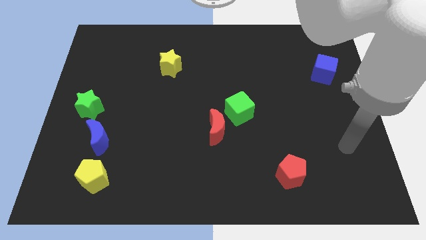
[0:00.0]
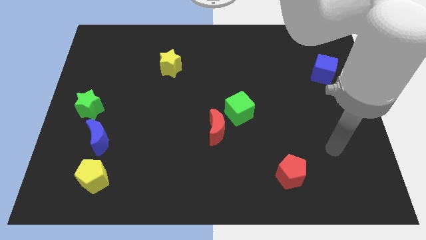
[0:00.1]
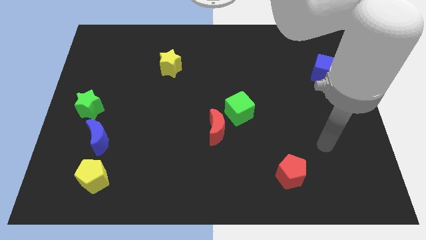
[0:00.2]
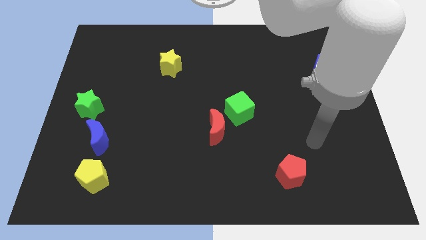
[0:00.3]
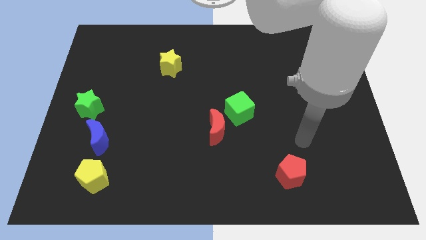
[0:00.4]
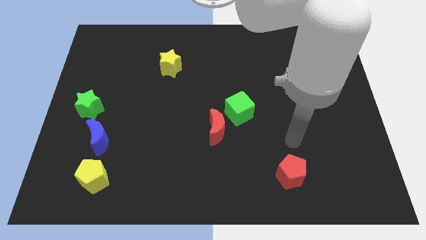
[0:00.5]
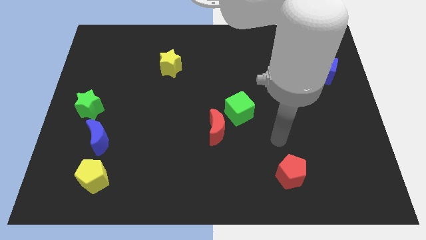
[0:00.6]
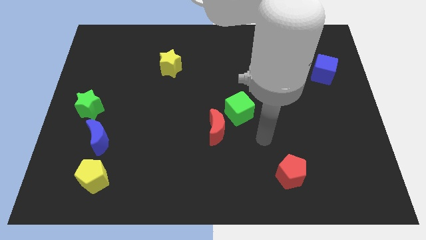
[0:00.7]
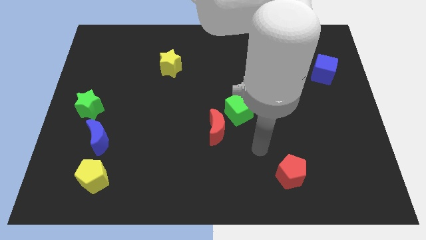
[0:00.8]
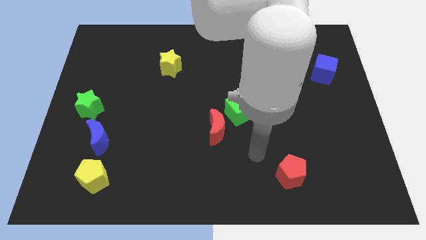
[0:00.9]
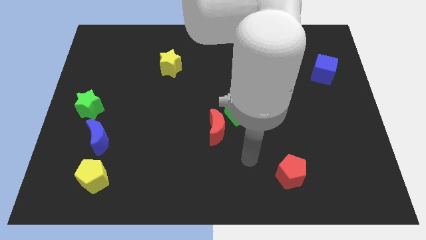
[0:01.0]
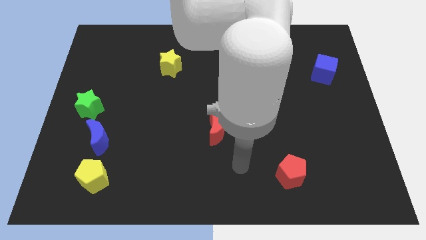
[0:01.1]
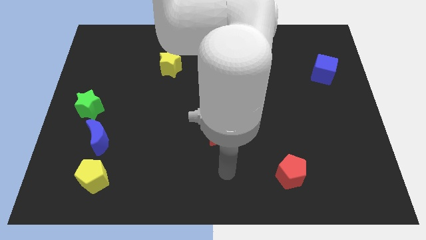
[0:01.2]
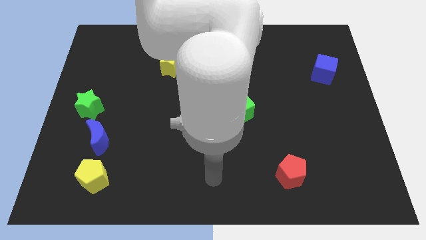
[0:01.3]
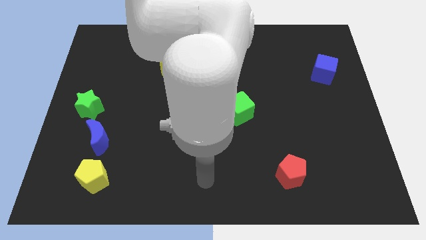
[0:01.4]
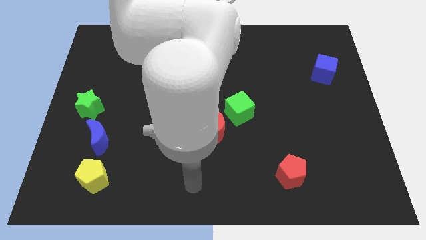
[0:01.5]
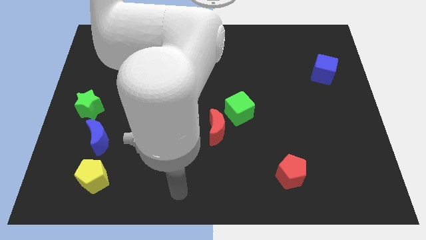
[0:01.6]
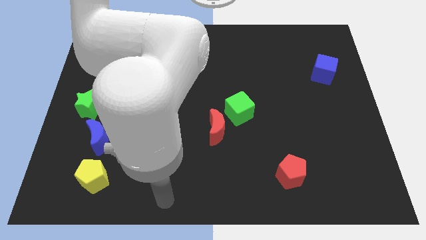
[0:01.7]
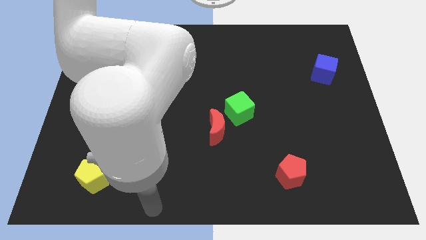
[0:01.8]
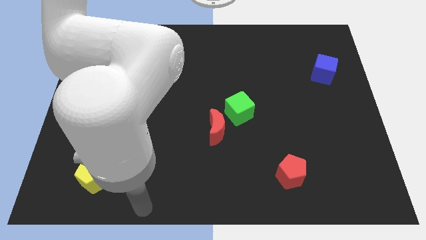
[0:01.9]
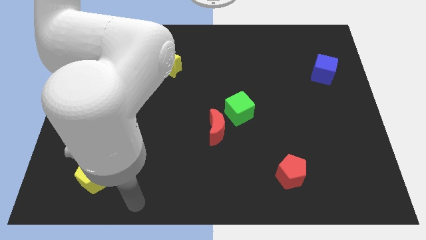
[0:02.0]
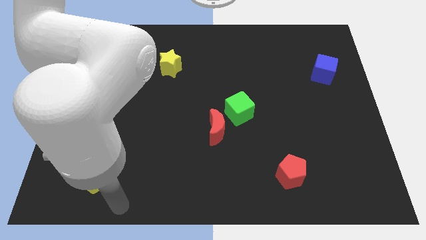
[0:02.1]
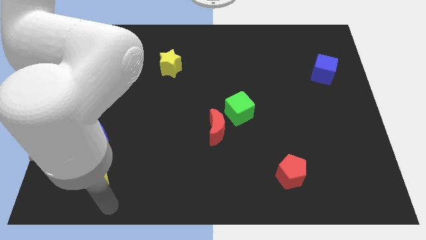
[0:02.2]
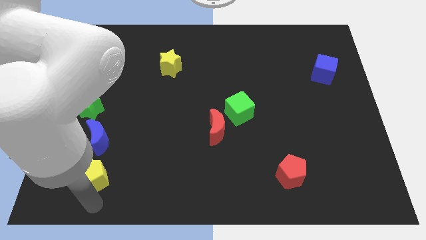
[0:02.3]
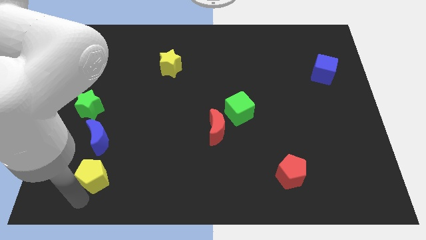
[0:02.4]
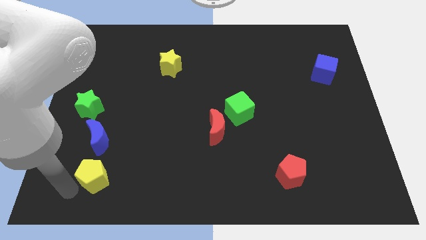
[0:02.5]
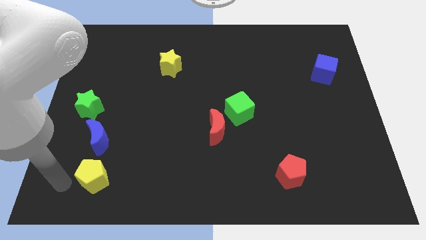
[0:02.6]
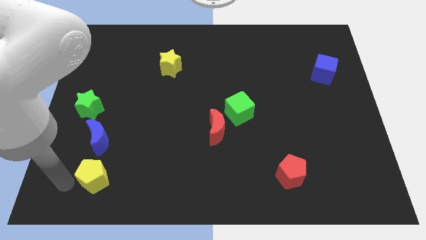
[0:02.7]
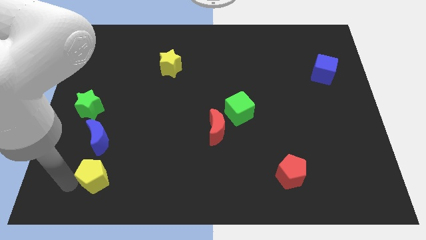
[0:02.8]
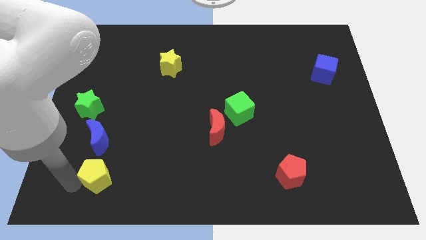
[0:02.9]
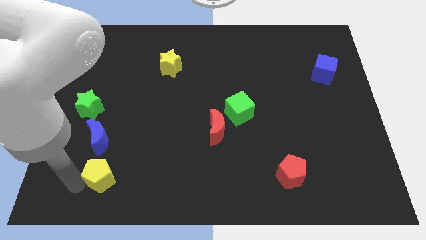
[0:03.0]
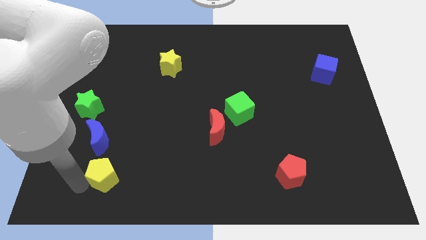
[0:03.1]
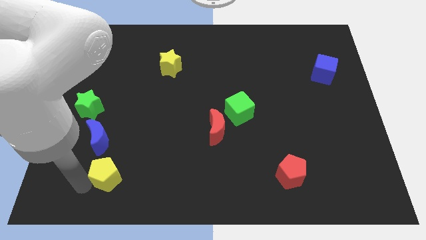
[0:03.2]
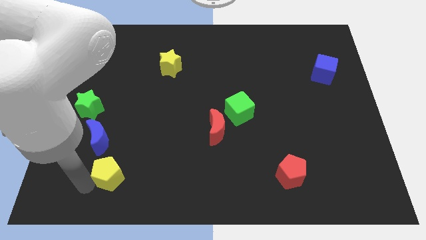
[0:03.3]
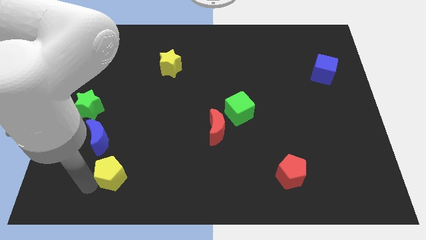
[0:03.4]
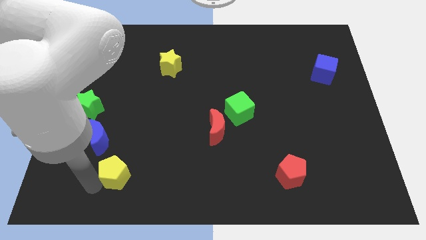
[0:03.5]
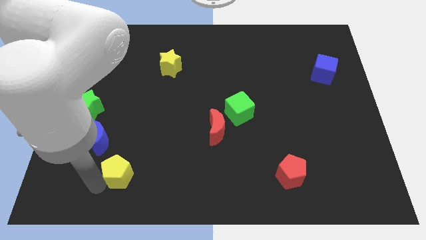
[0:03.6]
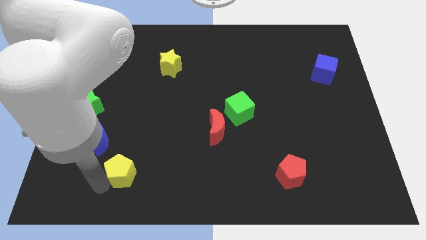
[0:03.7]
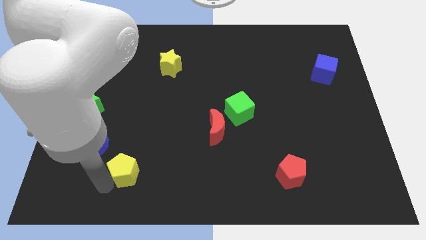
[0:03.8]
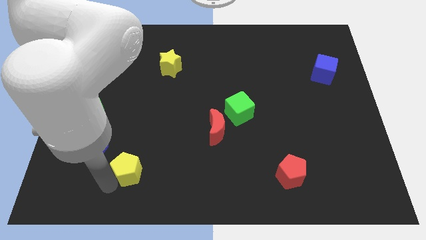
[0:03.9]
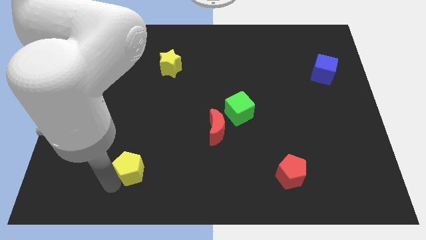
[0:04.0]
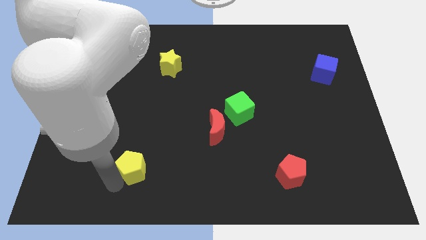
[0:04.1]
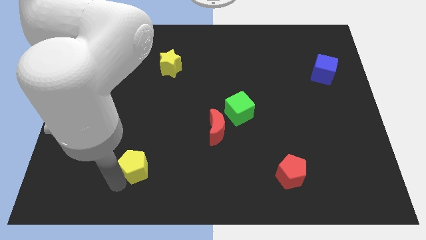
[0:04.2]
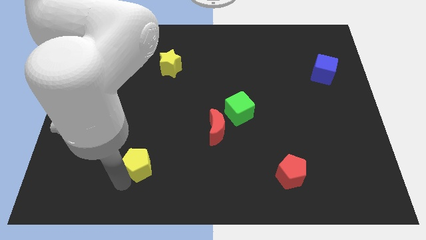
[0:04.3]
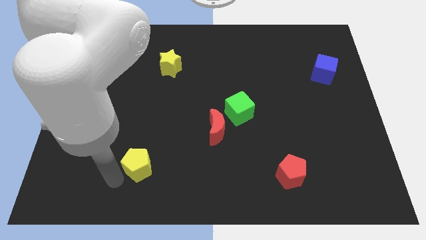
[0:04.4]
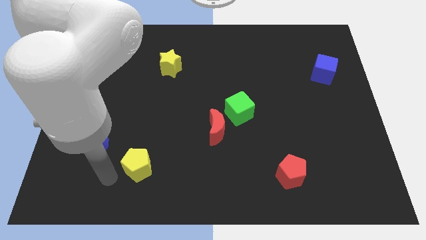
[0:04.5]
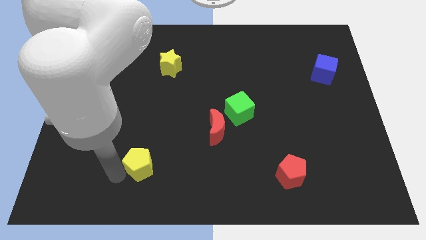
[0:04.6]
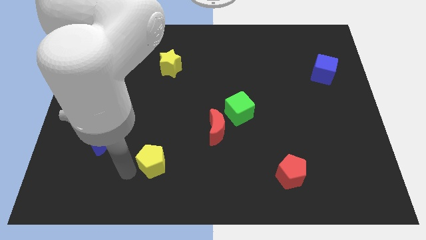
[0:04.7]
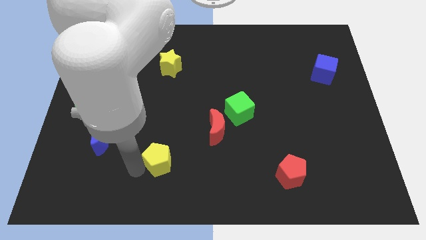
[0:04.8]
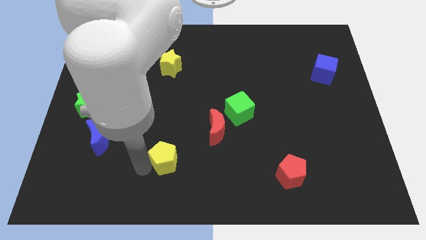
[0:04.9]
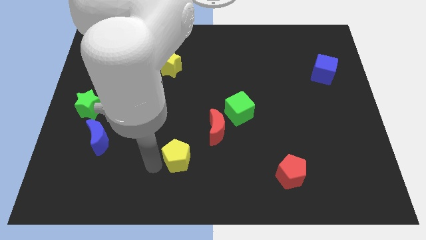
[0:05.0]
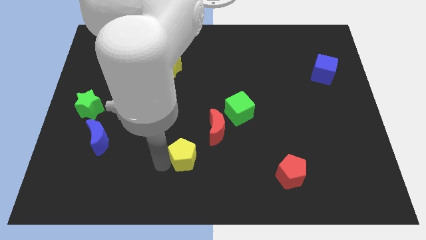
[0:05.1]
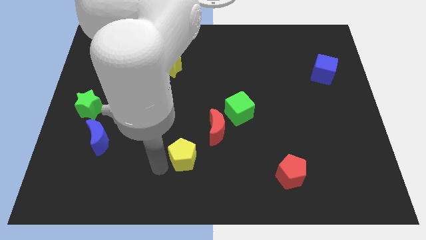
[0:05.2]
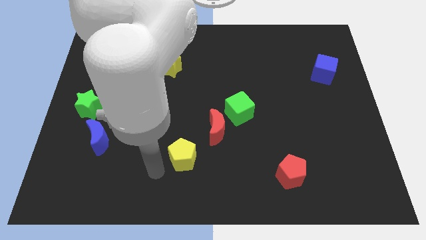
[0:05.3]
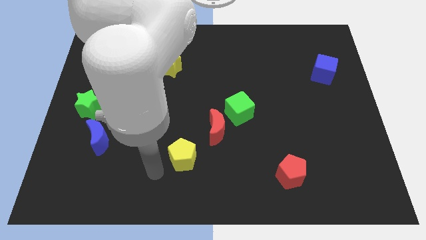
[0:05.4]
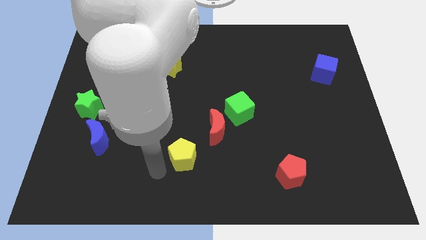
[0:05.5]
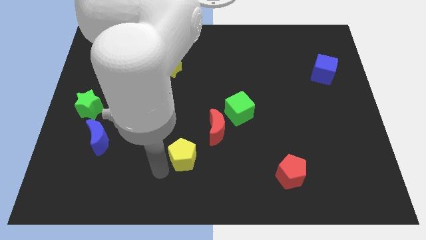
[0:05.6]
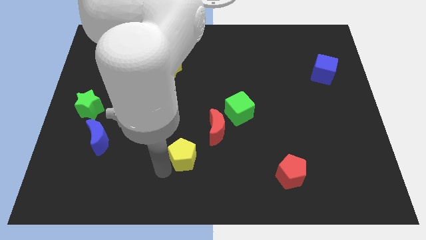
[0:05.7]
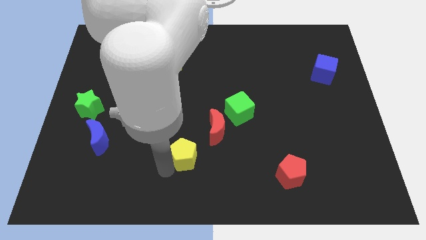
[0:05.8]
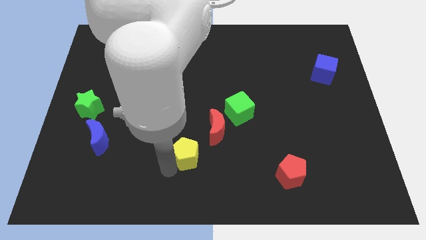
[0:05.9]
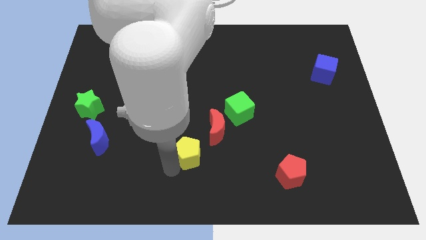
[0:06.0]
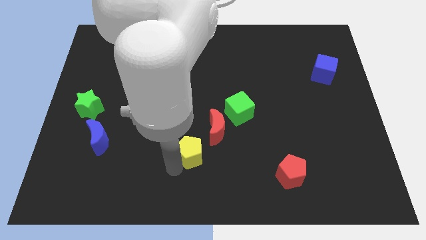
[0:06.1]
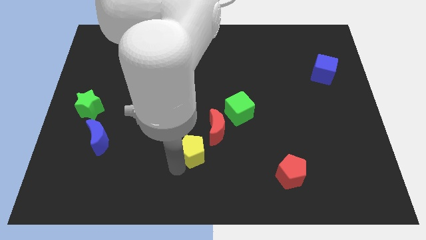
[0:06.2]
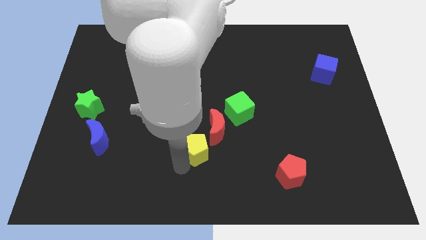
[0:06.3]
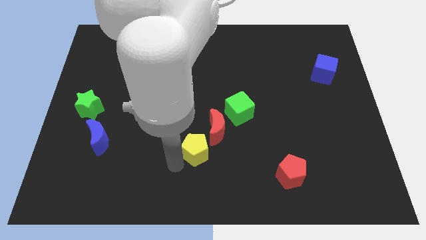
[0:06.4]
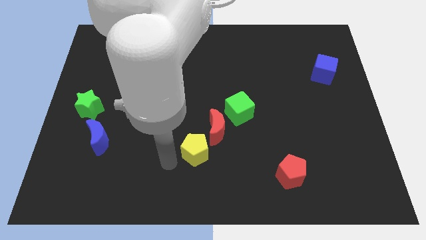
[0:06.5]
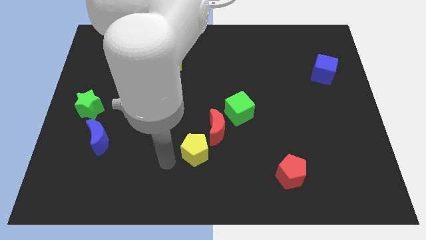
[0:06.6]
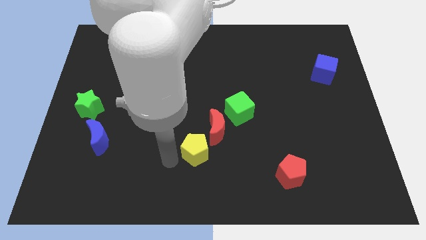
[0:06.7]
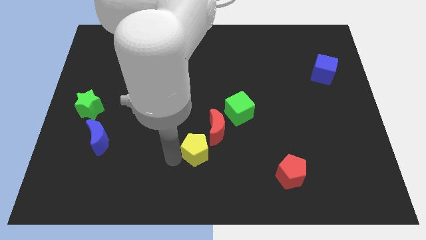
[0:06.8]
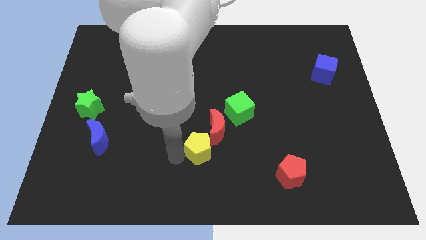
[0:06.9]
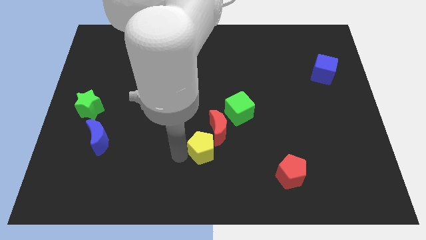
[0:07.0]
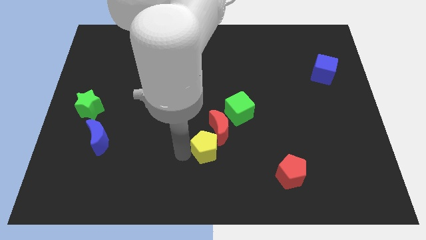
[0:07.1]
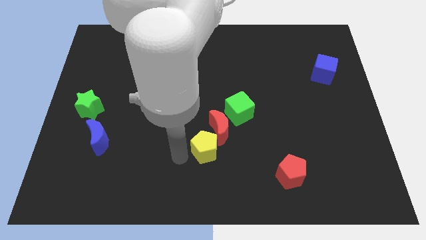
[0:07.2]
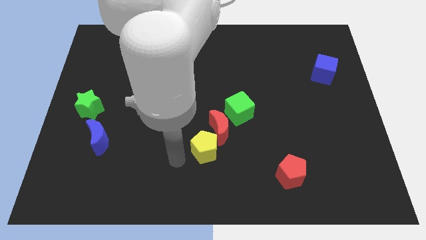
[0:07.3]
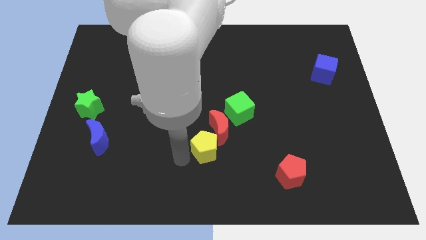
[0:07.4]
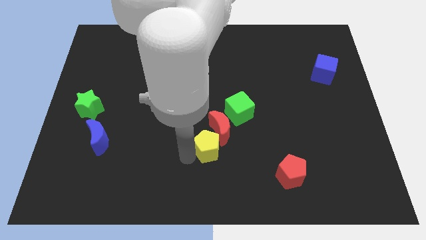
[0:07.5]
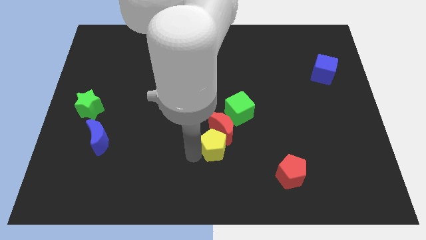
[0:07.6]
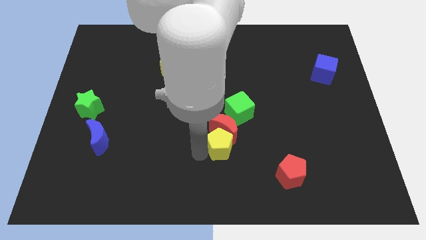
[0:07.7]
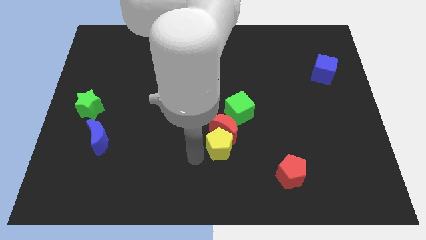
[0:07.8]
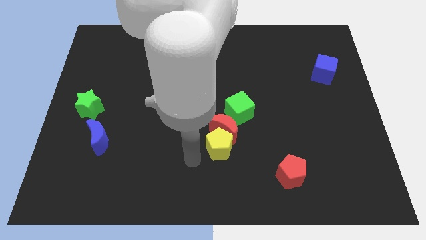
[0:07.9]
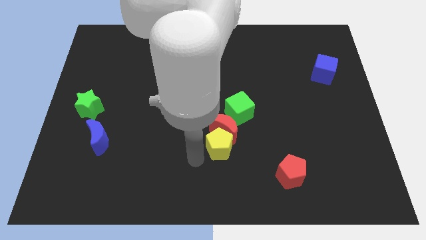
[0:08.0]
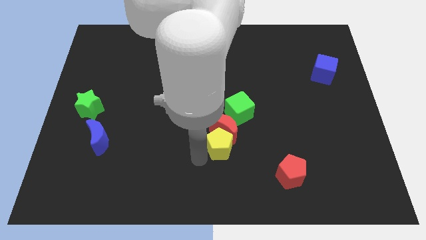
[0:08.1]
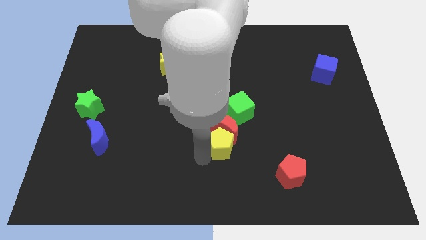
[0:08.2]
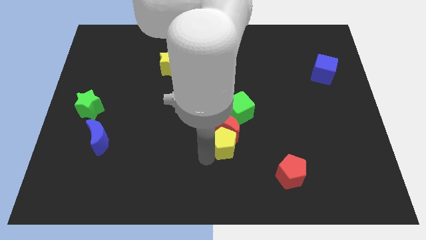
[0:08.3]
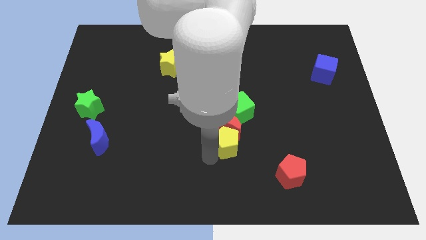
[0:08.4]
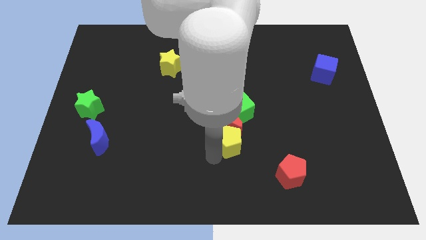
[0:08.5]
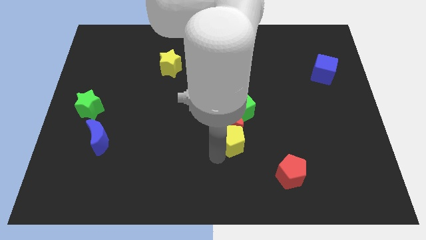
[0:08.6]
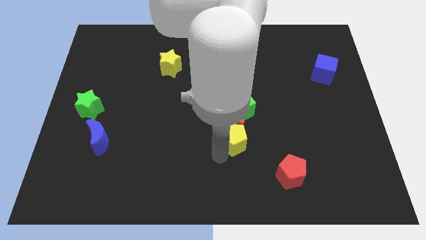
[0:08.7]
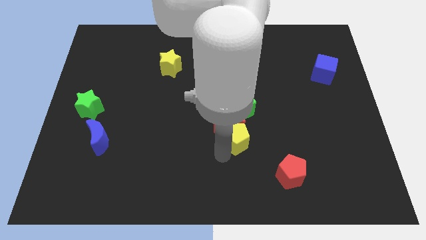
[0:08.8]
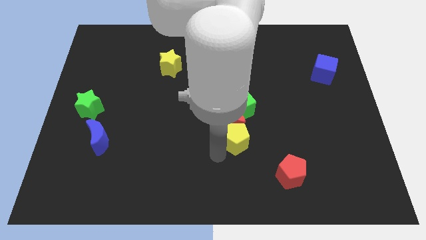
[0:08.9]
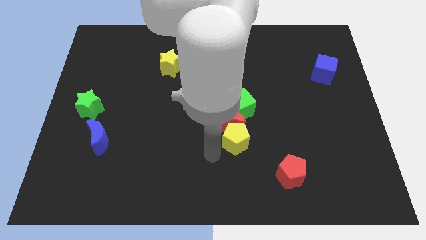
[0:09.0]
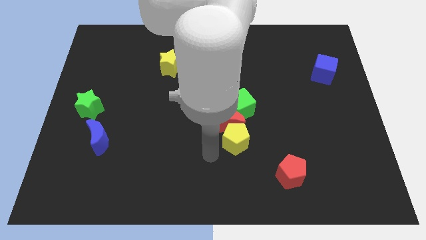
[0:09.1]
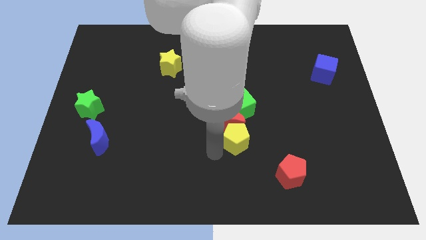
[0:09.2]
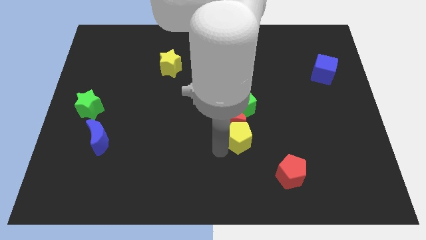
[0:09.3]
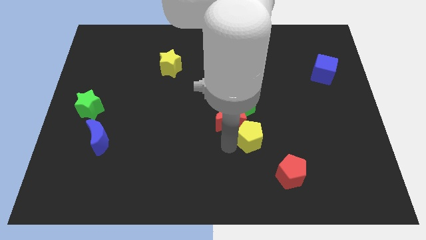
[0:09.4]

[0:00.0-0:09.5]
push the yellow pentagon just right of the red moon
